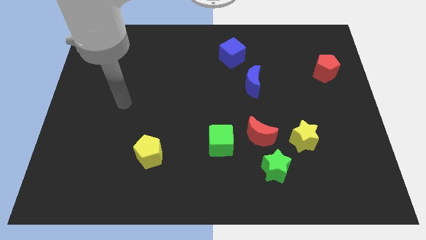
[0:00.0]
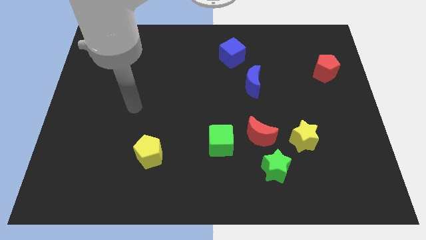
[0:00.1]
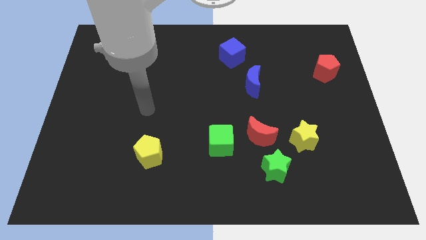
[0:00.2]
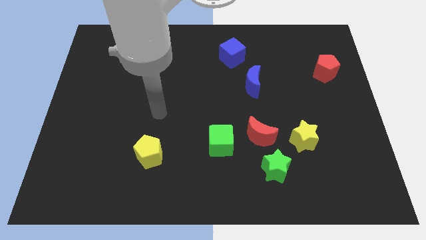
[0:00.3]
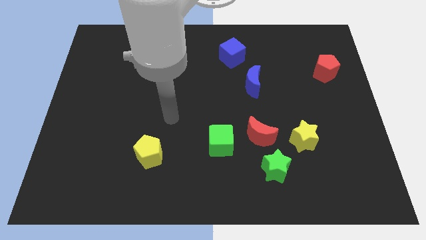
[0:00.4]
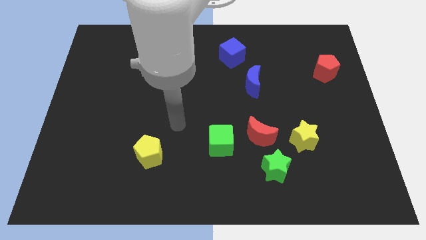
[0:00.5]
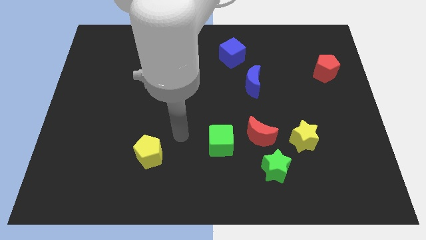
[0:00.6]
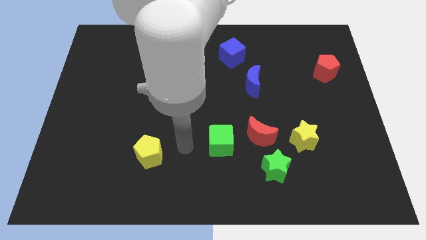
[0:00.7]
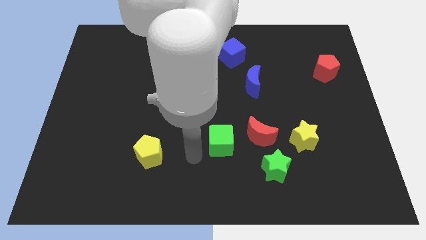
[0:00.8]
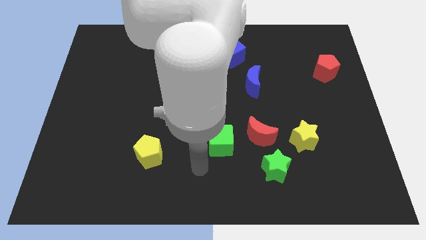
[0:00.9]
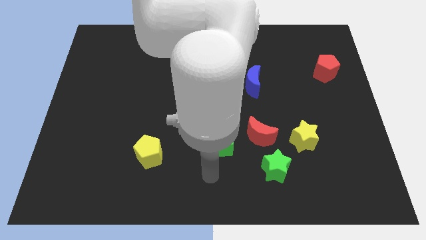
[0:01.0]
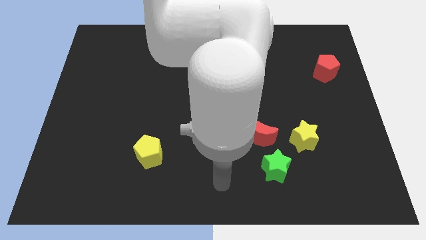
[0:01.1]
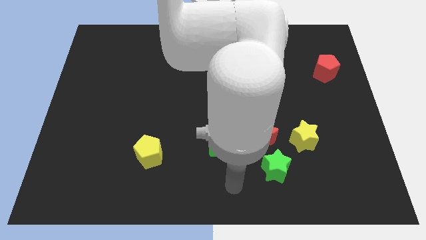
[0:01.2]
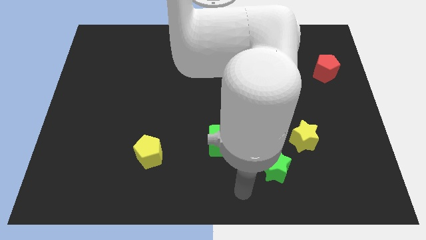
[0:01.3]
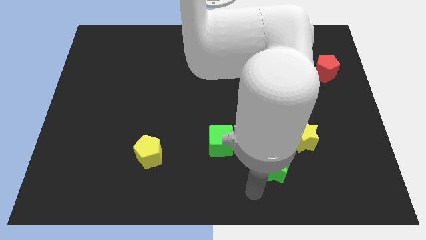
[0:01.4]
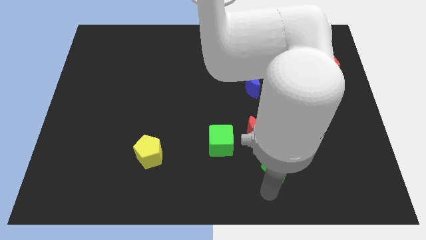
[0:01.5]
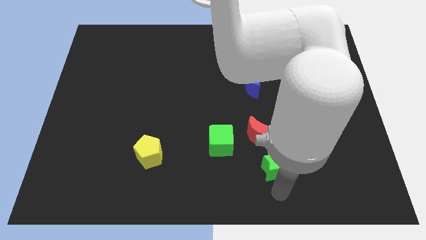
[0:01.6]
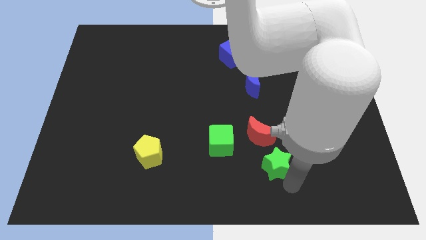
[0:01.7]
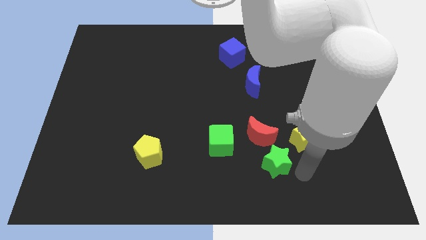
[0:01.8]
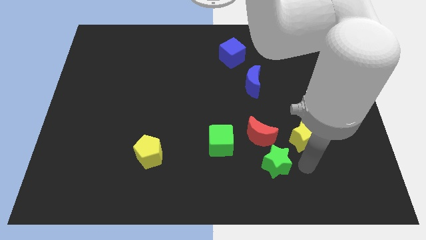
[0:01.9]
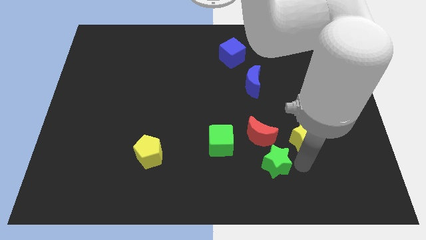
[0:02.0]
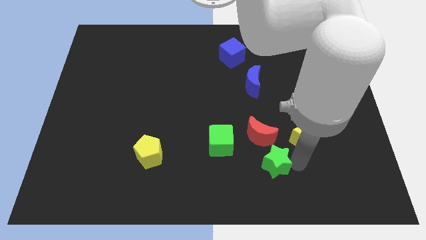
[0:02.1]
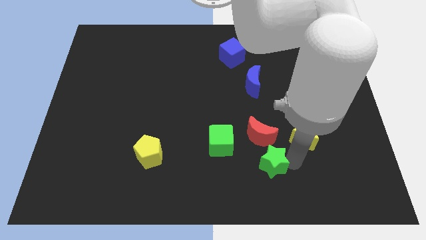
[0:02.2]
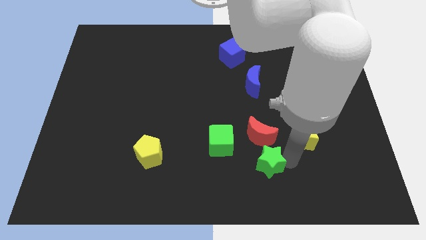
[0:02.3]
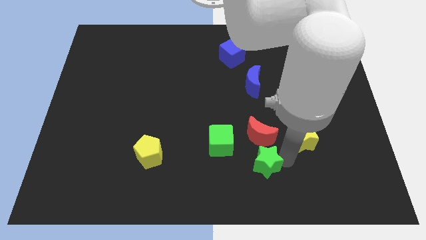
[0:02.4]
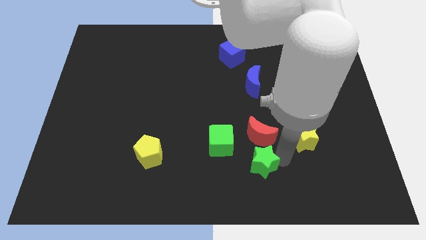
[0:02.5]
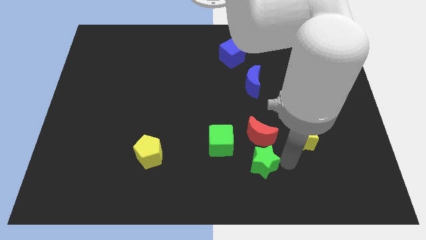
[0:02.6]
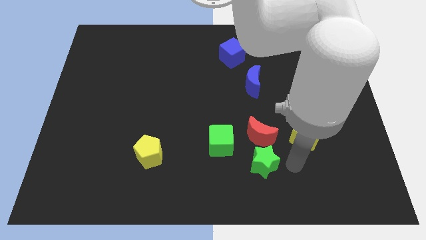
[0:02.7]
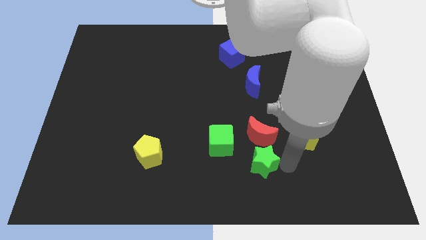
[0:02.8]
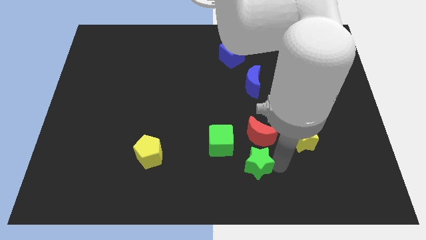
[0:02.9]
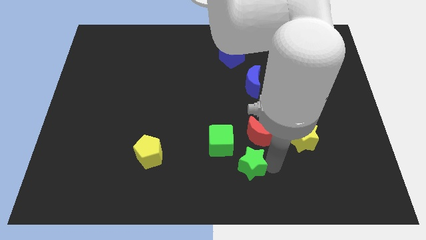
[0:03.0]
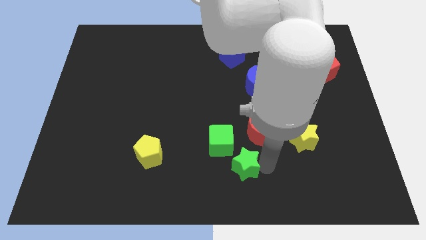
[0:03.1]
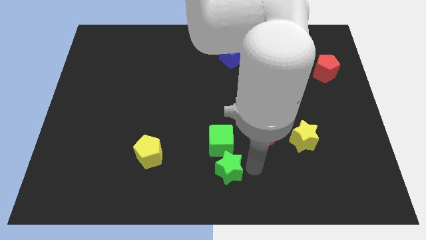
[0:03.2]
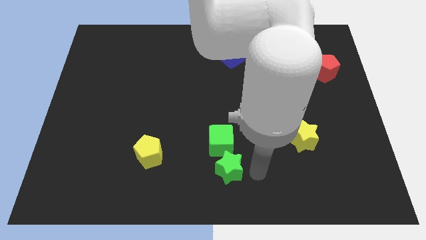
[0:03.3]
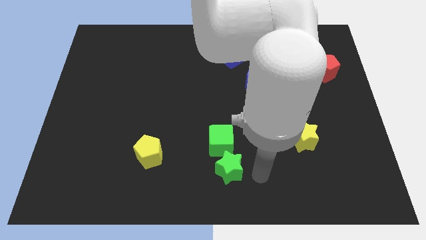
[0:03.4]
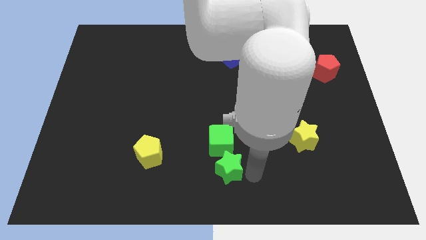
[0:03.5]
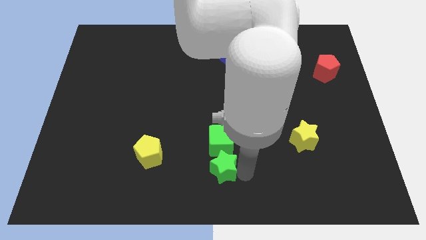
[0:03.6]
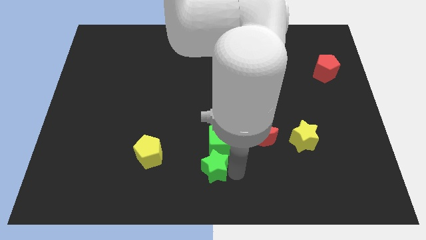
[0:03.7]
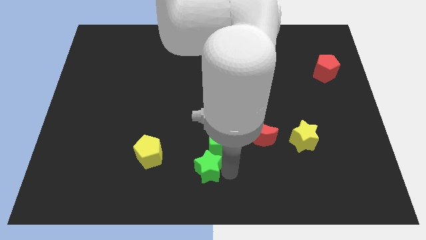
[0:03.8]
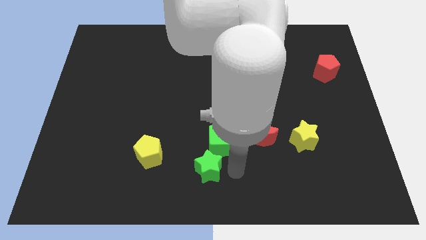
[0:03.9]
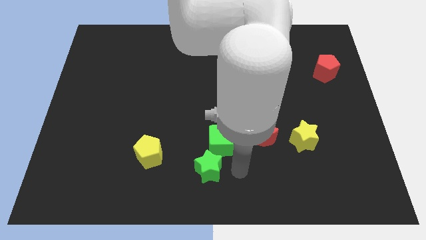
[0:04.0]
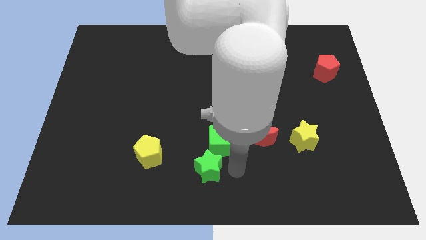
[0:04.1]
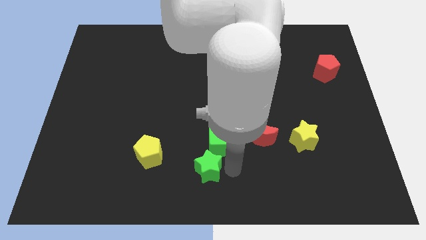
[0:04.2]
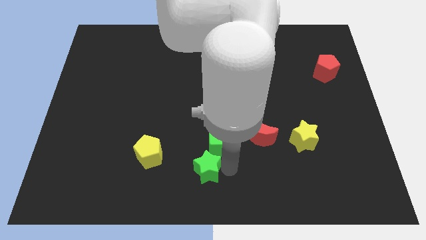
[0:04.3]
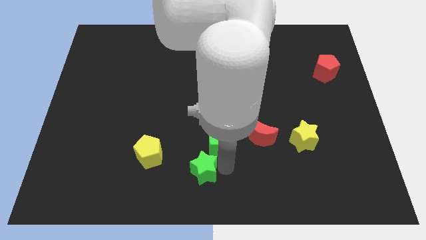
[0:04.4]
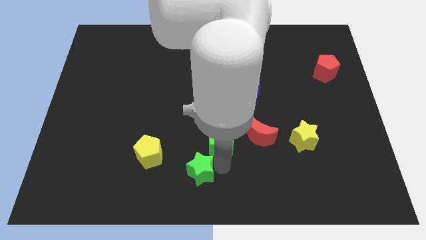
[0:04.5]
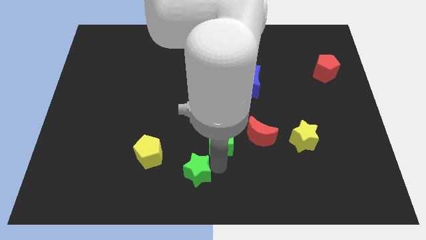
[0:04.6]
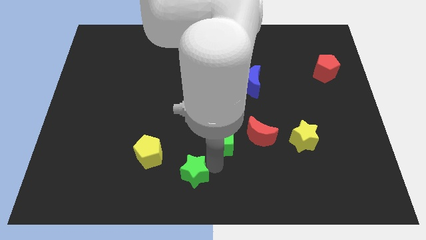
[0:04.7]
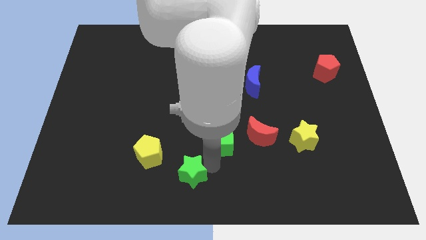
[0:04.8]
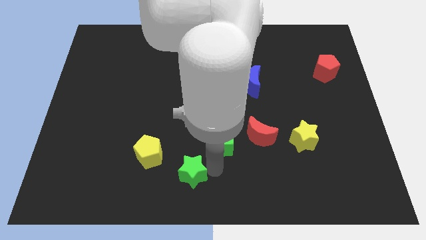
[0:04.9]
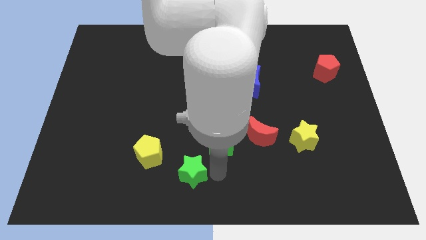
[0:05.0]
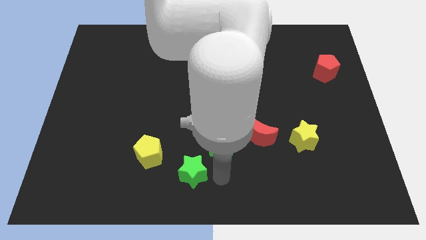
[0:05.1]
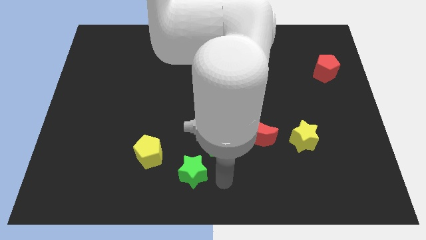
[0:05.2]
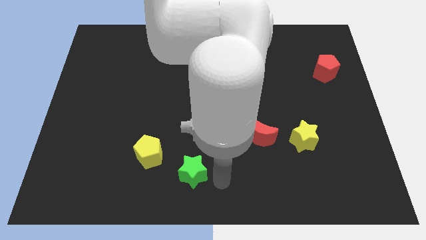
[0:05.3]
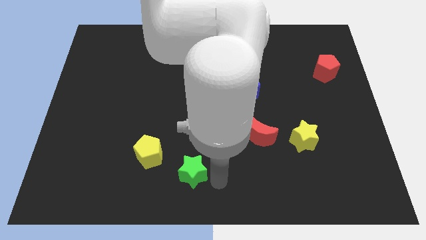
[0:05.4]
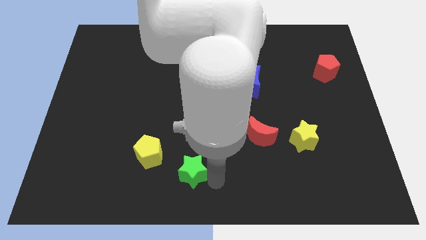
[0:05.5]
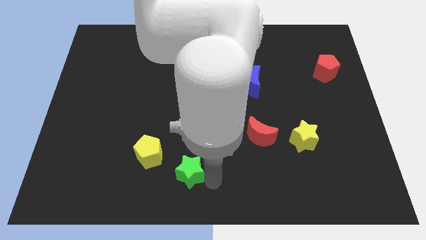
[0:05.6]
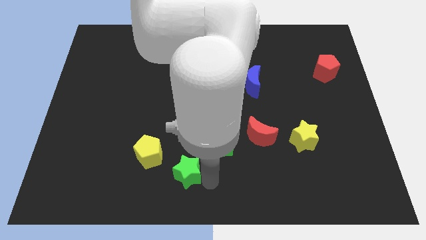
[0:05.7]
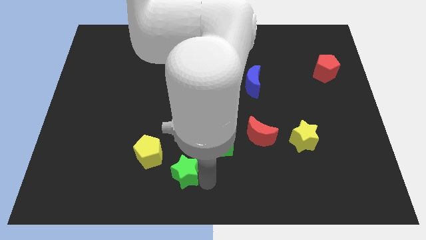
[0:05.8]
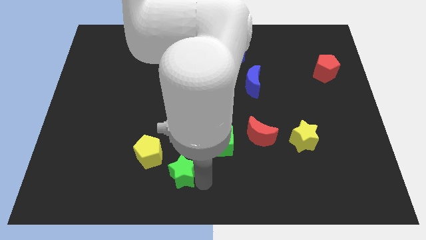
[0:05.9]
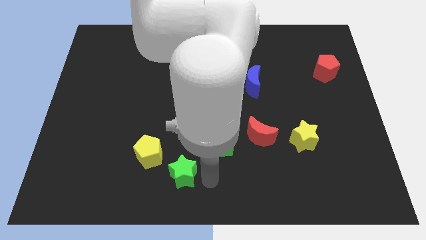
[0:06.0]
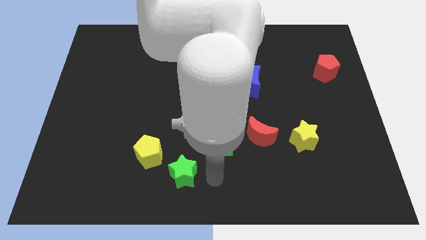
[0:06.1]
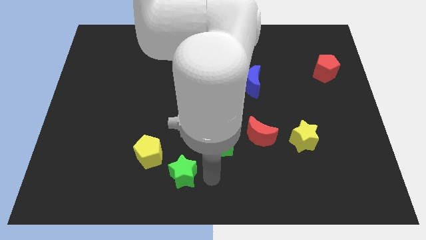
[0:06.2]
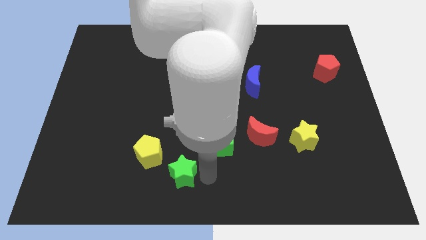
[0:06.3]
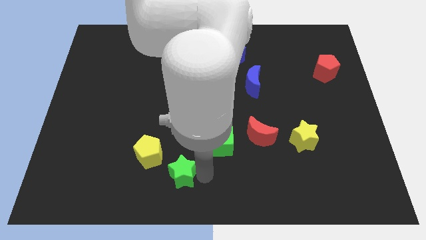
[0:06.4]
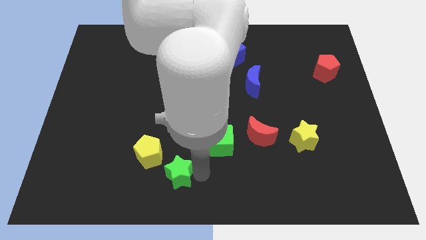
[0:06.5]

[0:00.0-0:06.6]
slide the green star to the left

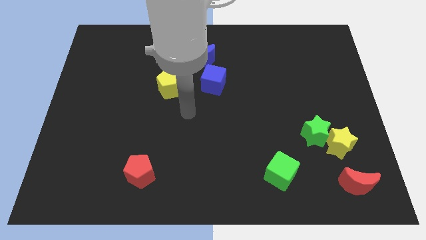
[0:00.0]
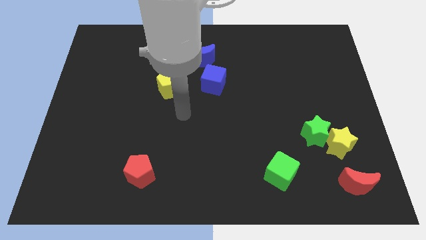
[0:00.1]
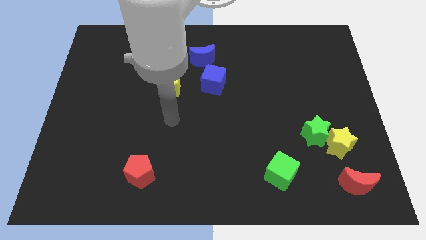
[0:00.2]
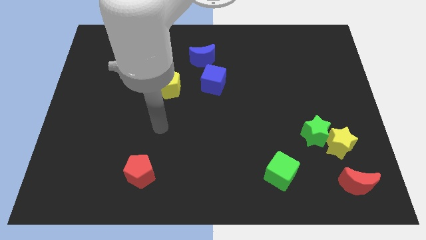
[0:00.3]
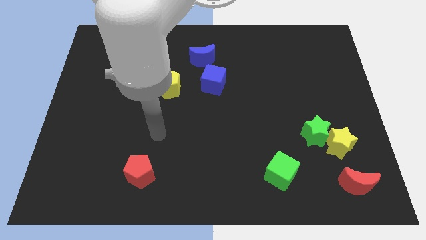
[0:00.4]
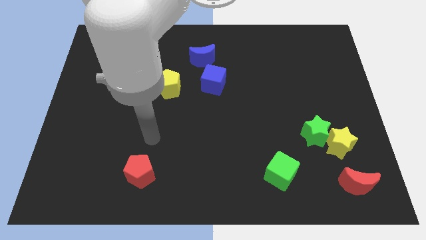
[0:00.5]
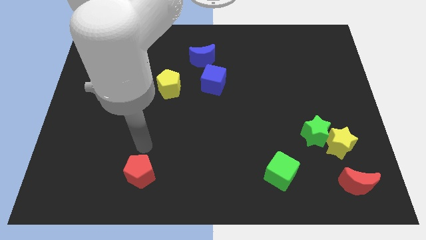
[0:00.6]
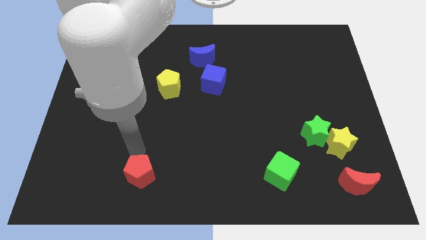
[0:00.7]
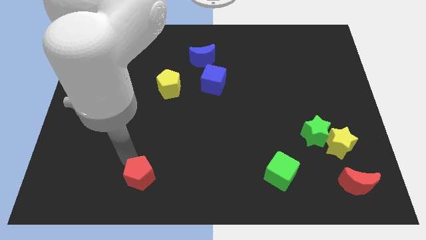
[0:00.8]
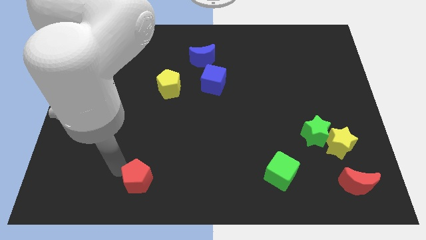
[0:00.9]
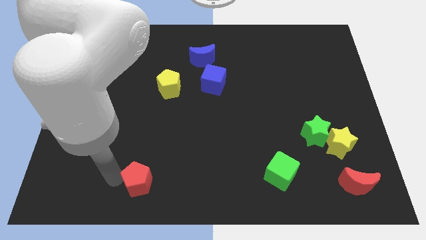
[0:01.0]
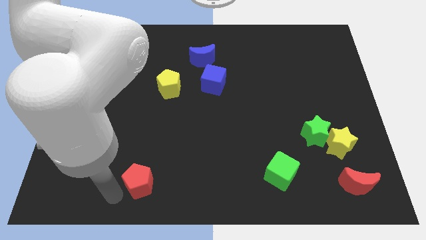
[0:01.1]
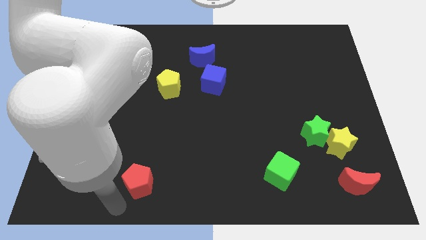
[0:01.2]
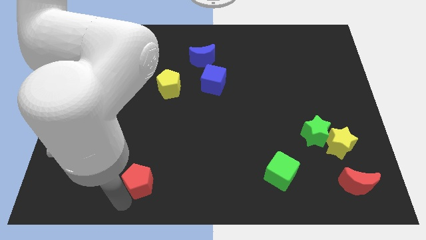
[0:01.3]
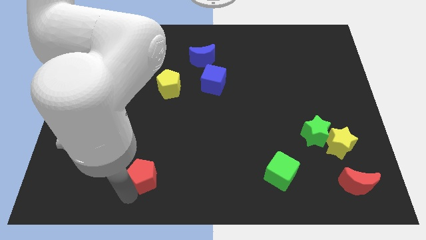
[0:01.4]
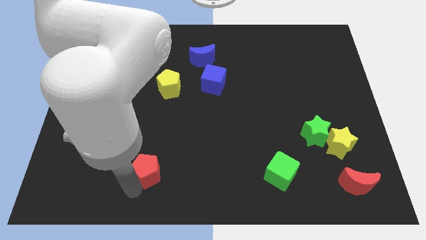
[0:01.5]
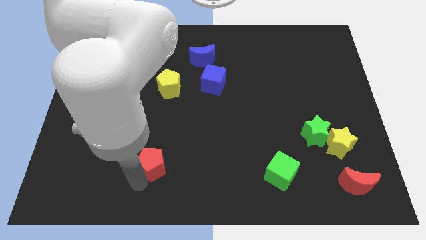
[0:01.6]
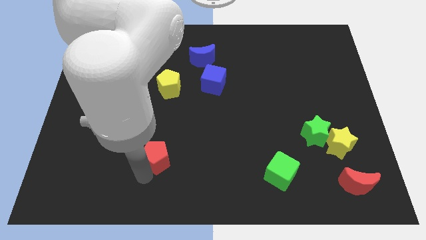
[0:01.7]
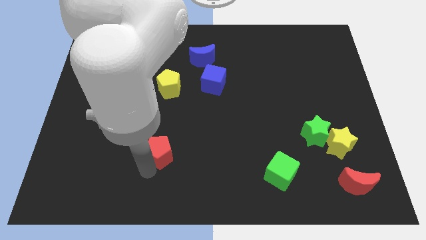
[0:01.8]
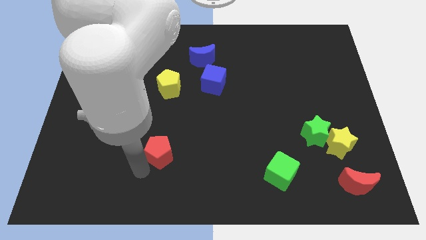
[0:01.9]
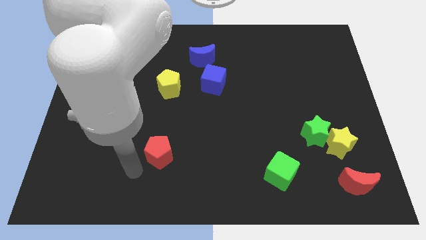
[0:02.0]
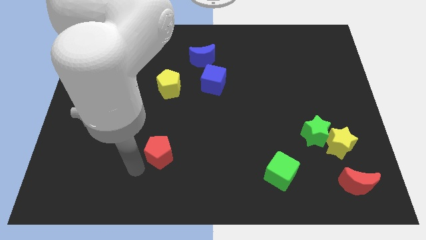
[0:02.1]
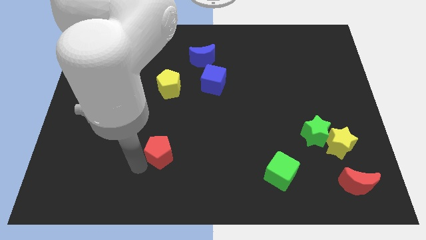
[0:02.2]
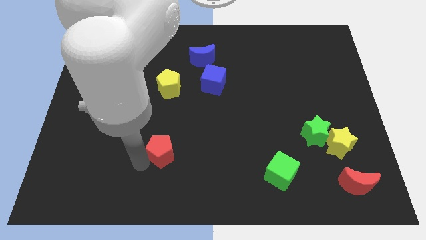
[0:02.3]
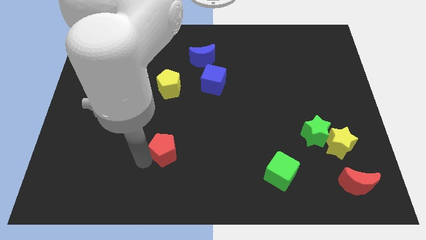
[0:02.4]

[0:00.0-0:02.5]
move the red pentagon a little bit upwards and right
